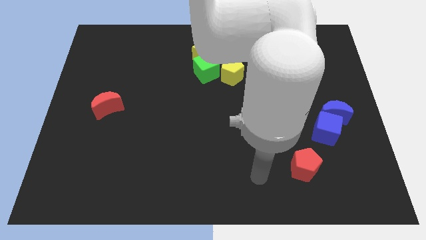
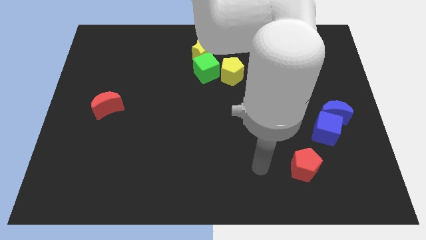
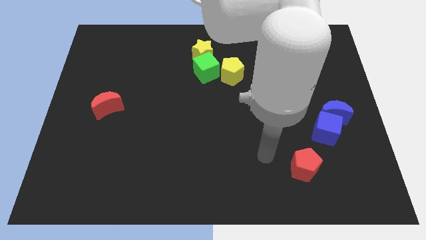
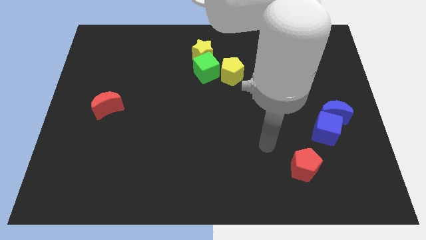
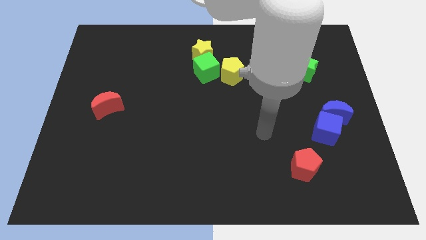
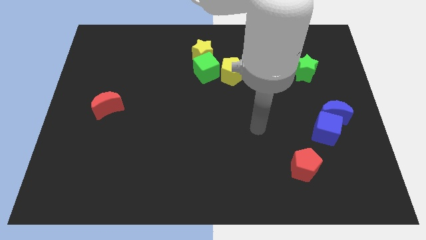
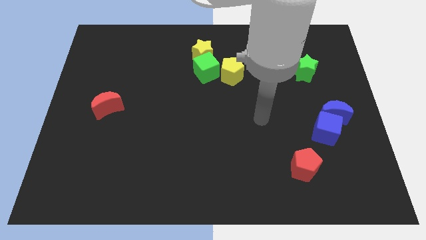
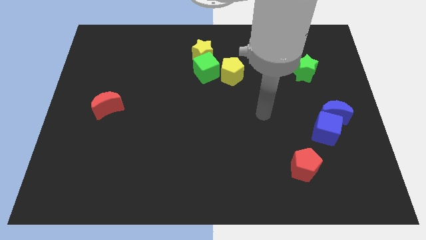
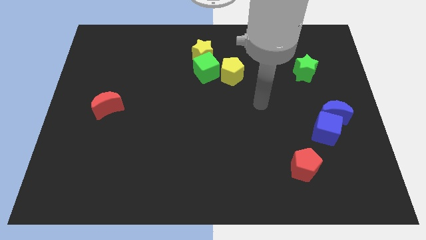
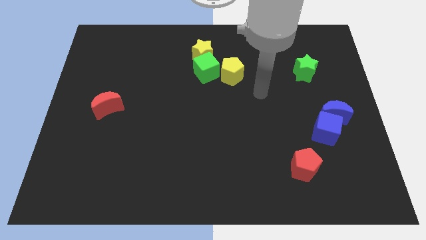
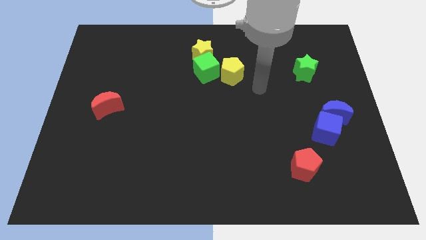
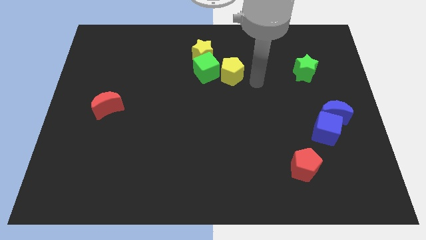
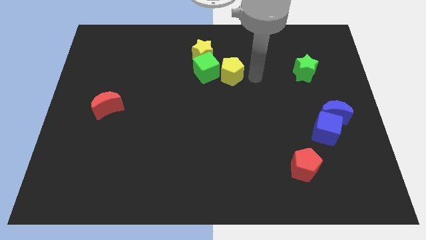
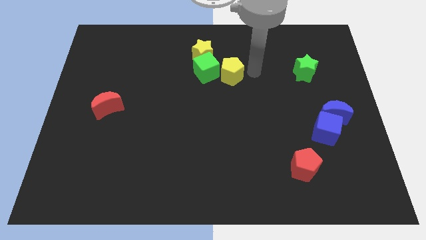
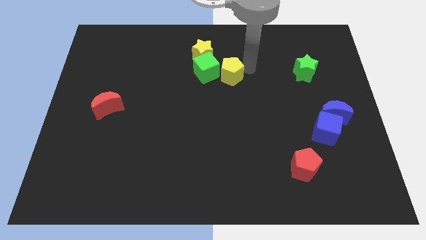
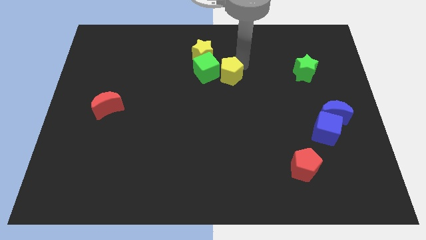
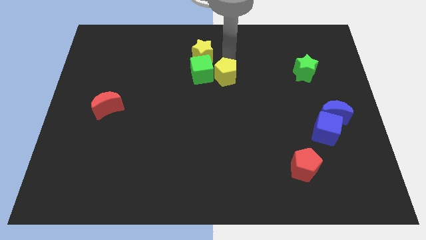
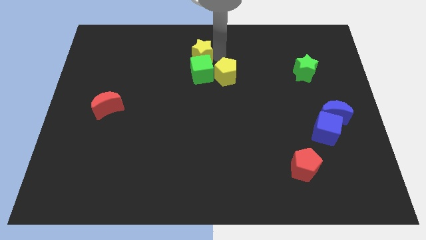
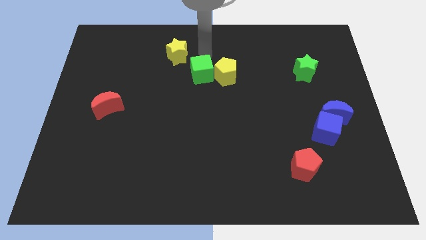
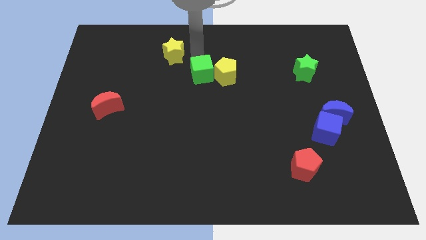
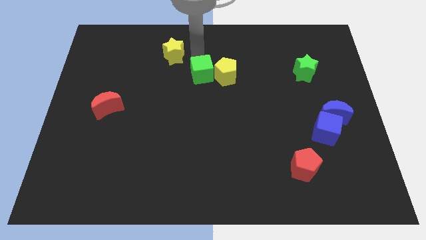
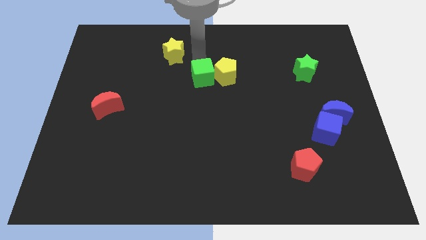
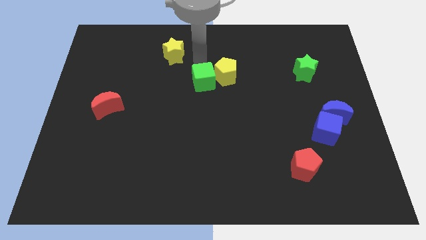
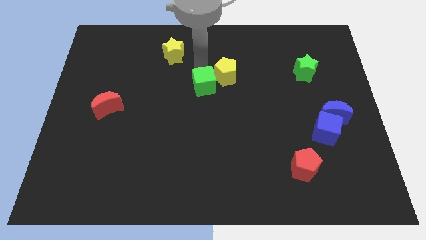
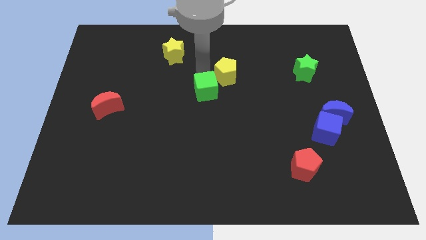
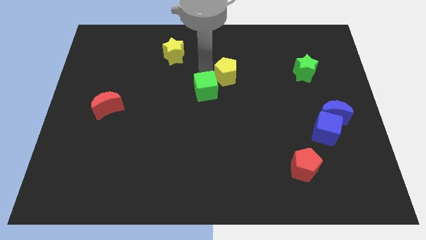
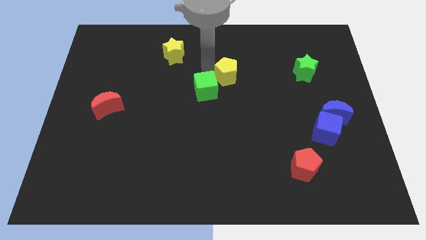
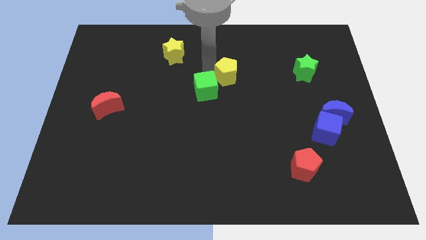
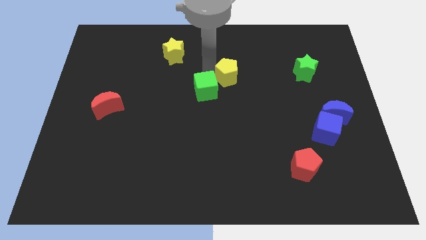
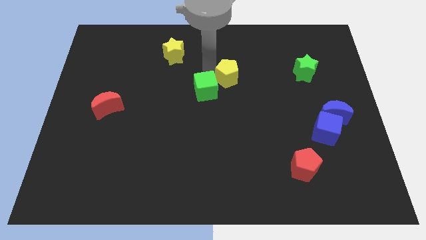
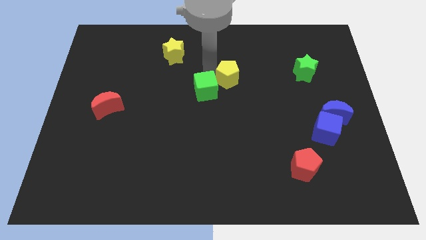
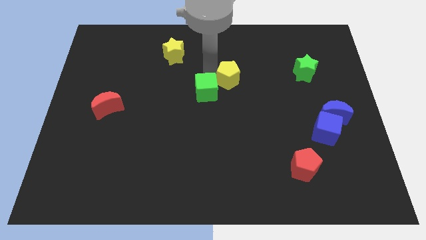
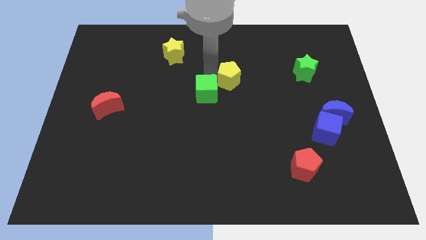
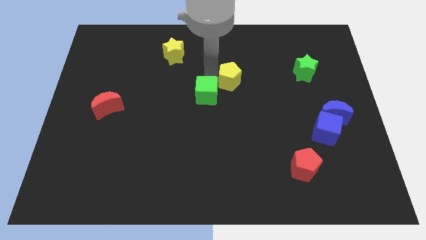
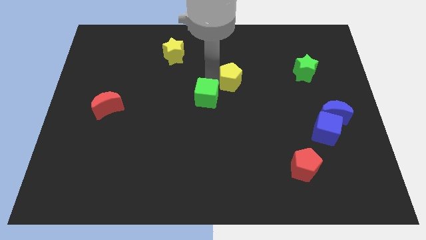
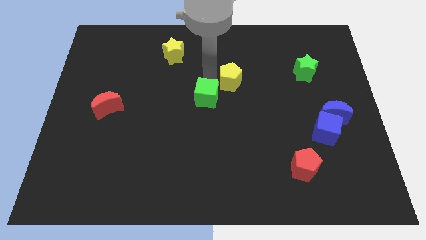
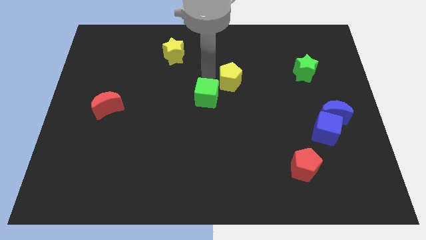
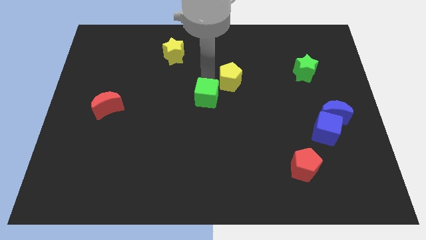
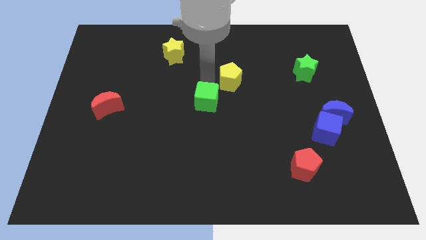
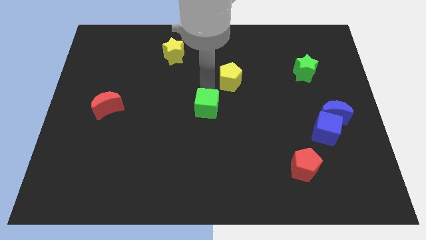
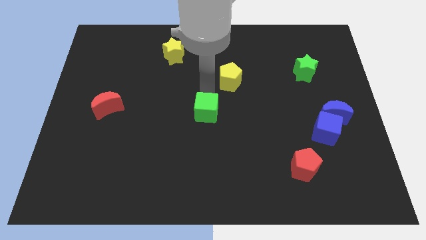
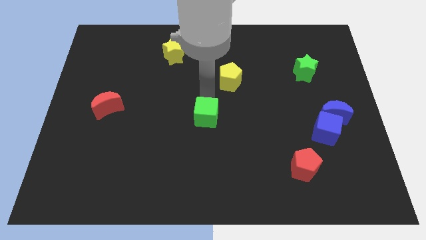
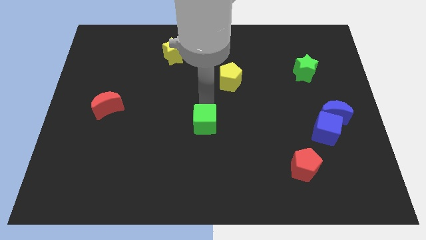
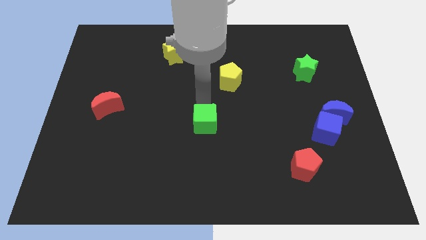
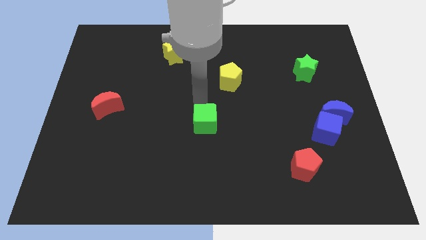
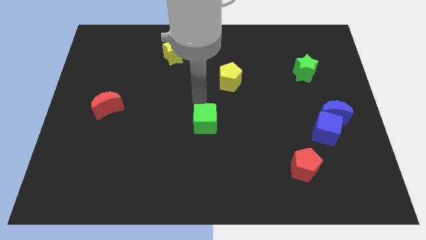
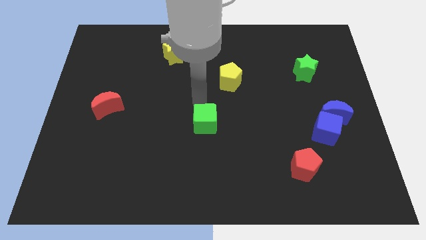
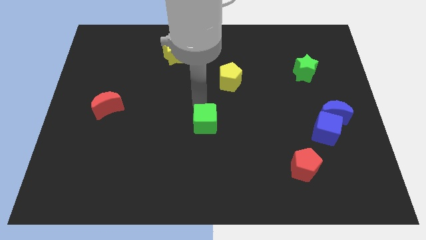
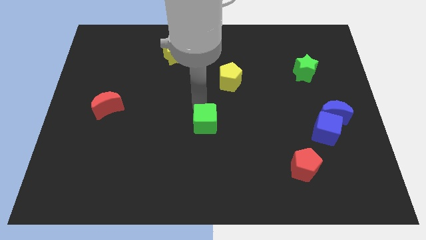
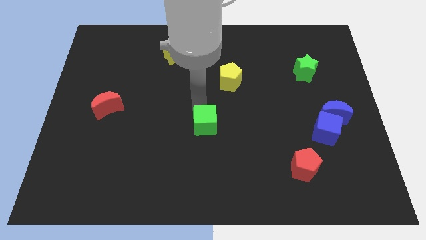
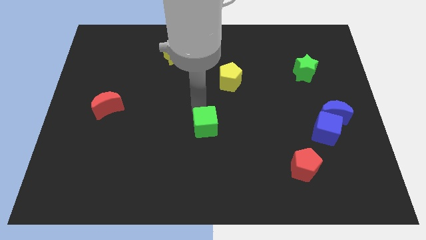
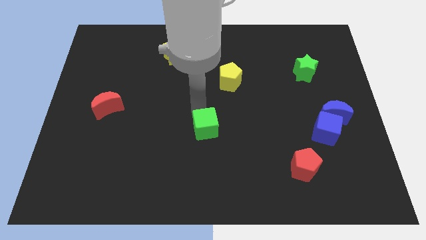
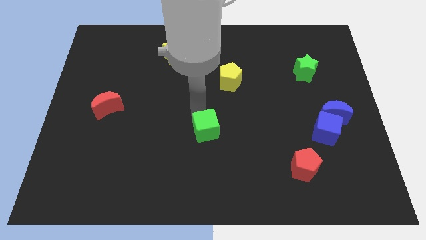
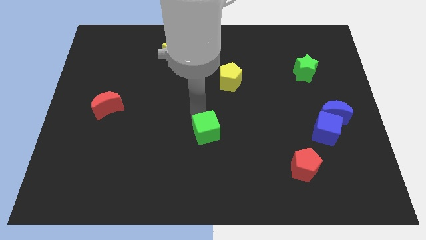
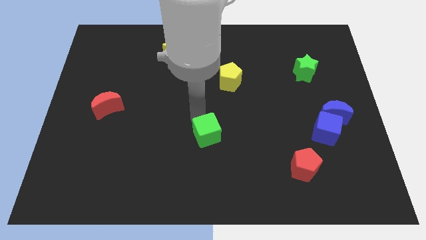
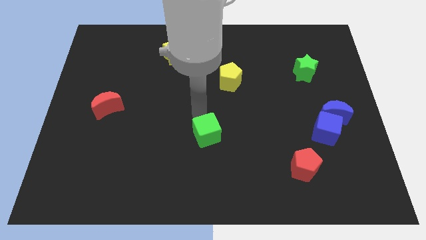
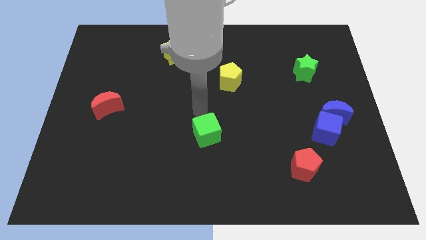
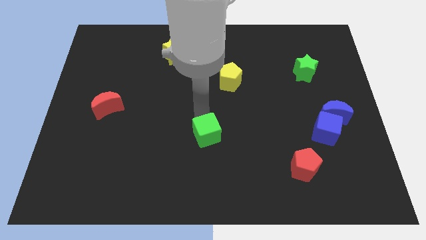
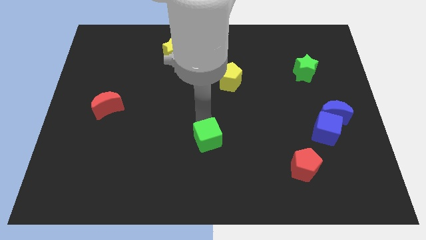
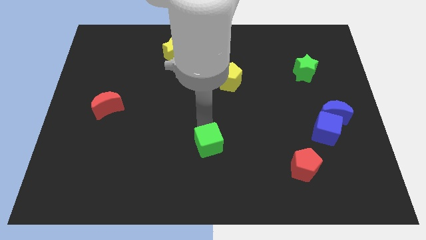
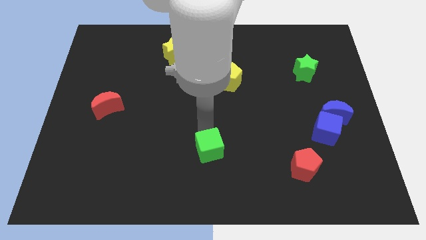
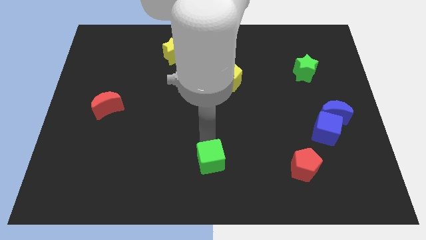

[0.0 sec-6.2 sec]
slide the green cube to the bottom

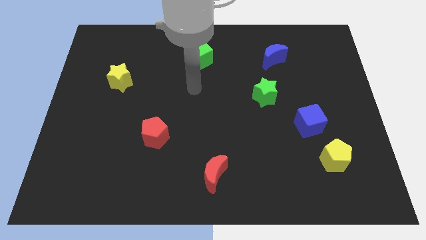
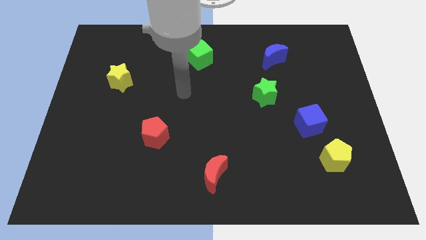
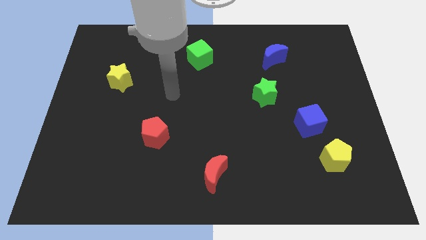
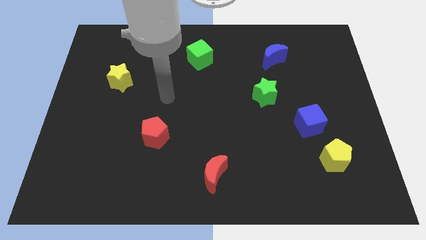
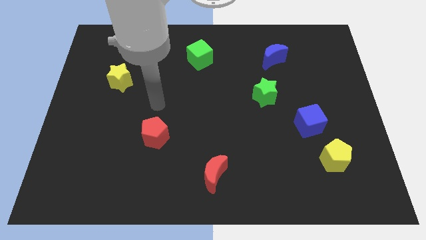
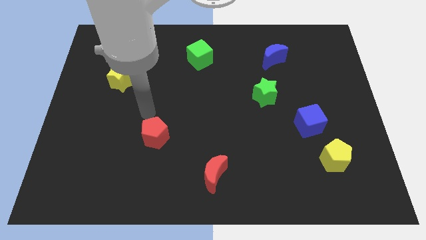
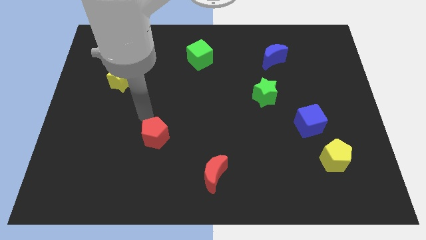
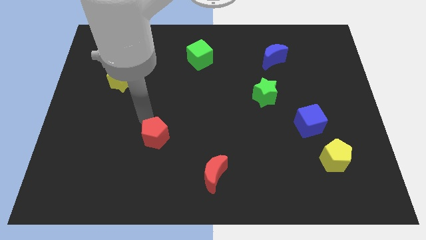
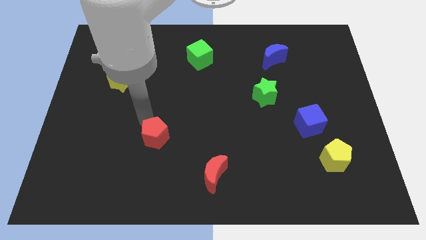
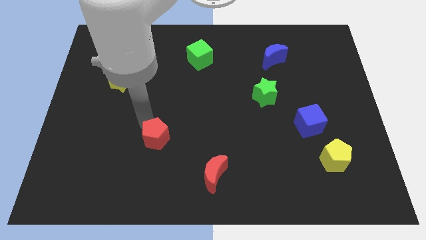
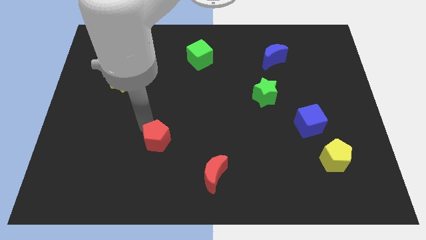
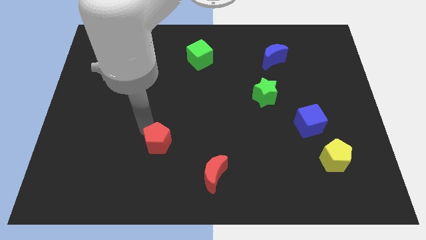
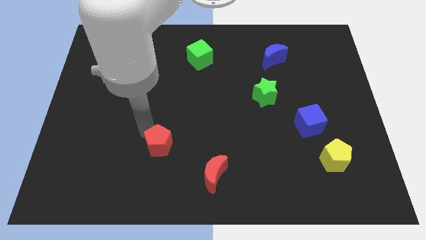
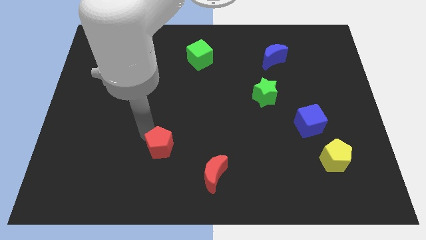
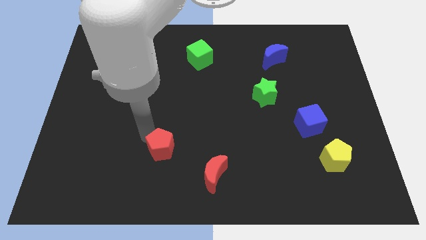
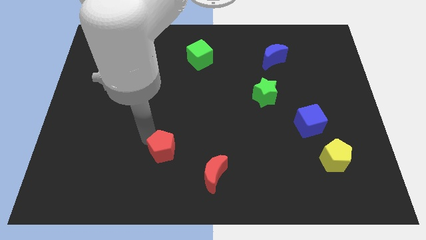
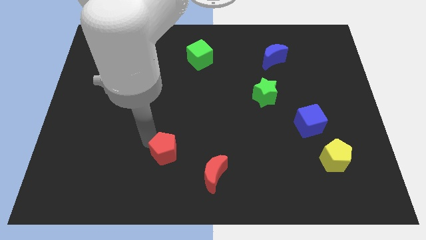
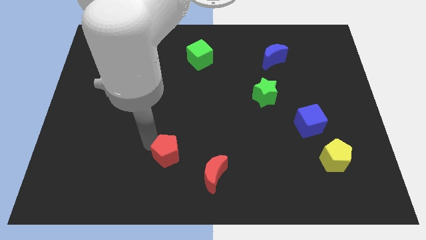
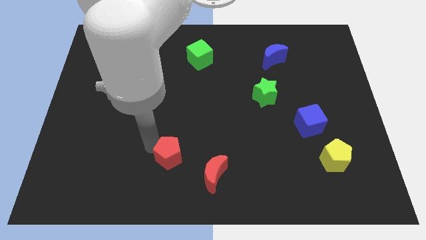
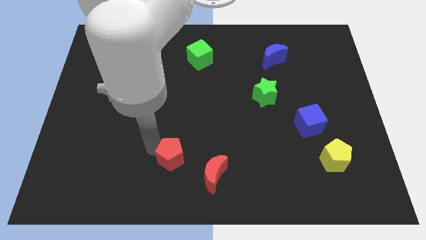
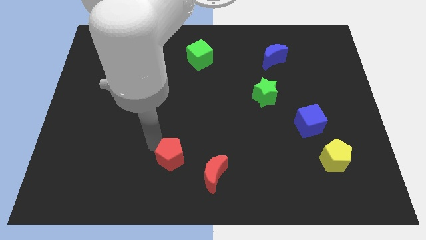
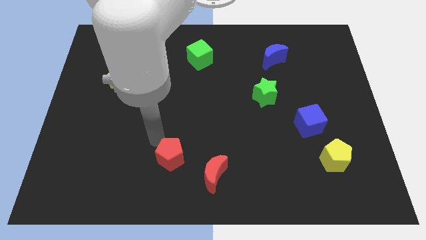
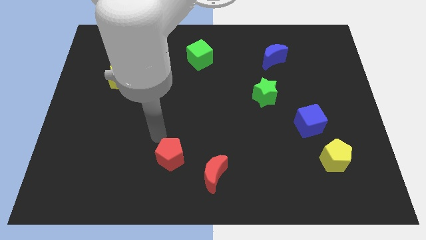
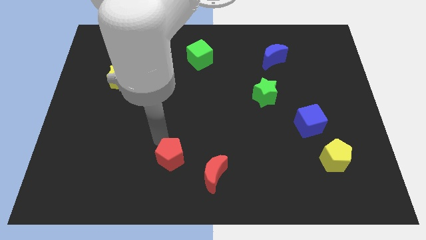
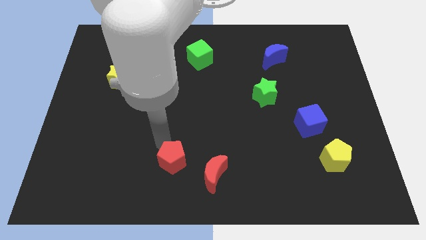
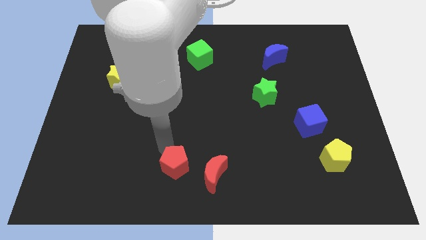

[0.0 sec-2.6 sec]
put the red pentagon to the bottom side
